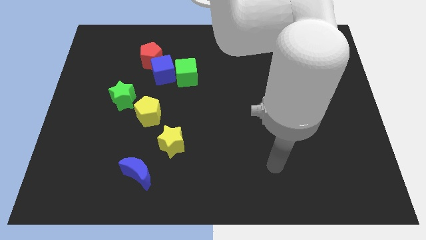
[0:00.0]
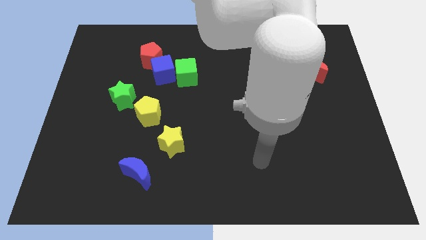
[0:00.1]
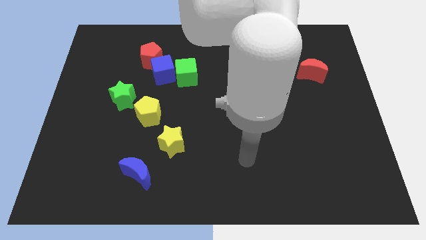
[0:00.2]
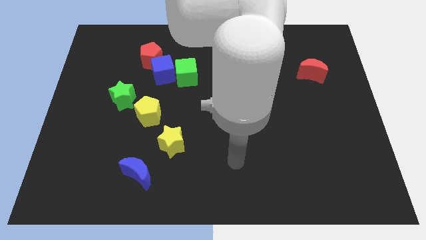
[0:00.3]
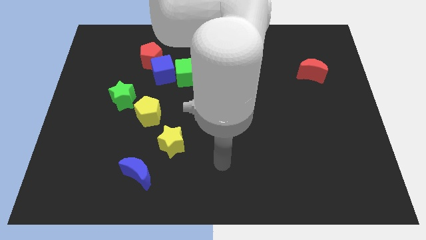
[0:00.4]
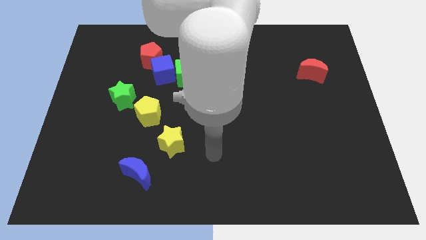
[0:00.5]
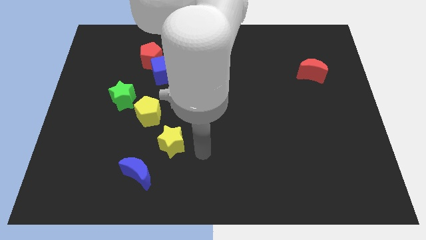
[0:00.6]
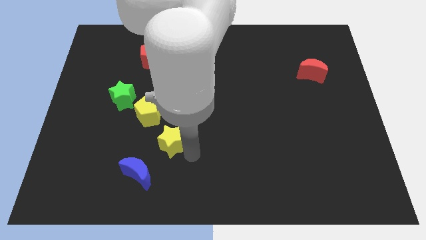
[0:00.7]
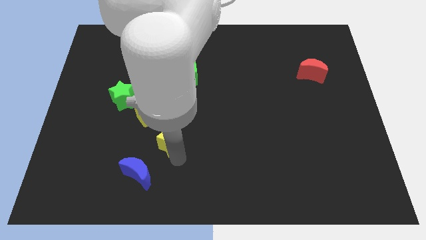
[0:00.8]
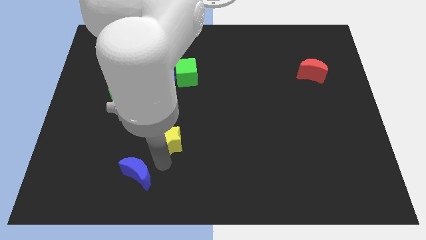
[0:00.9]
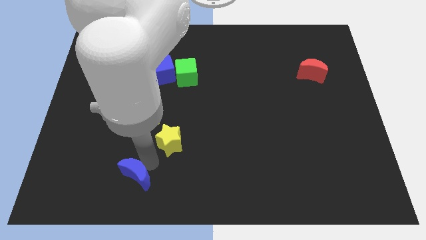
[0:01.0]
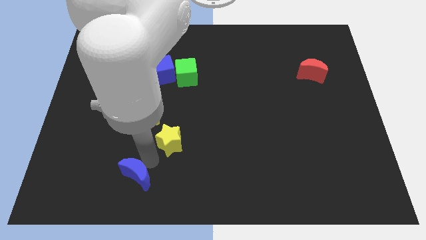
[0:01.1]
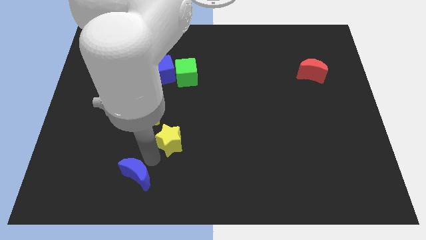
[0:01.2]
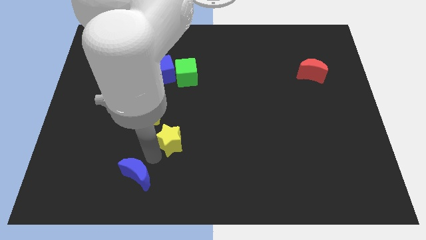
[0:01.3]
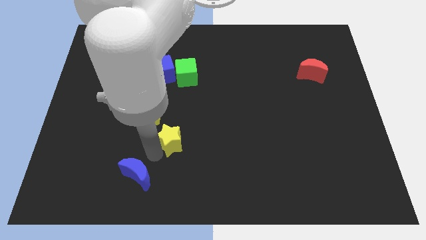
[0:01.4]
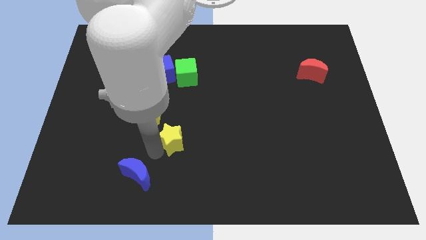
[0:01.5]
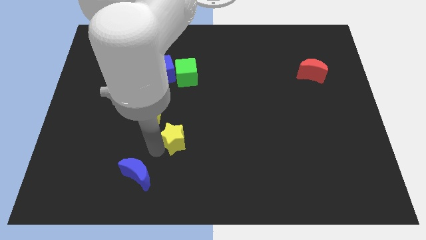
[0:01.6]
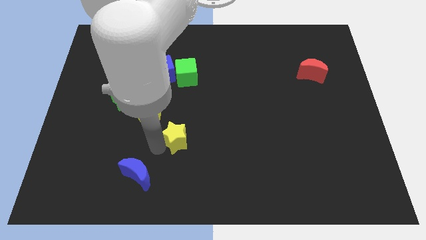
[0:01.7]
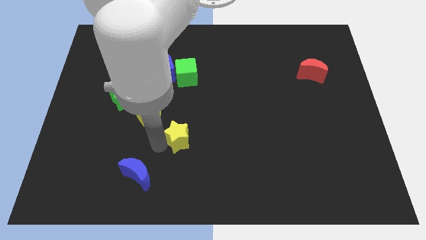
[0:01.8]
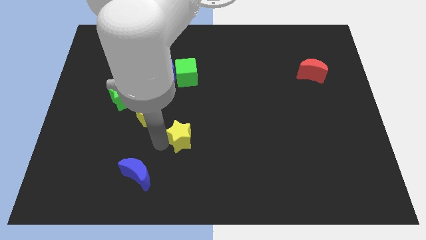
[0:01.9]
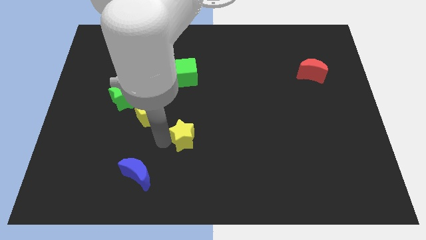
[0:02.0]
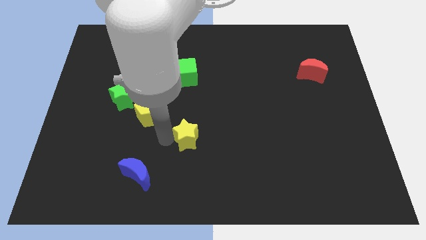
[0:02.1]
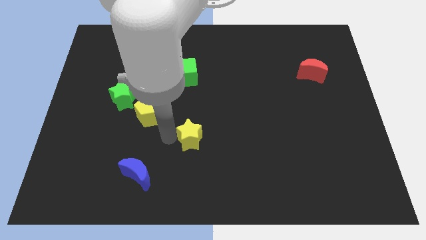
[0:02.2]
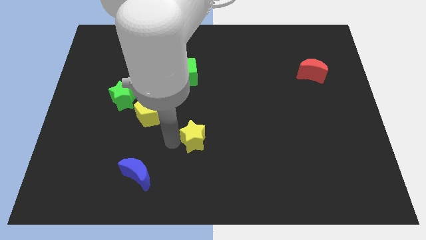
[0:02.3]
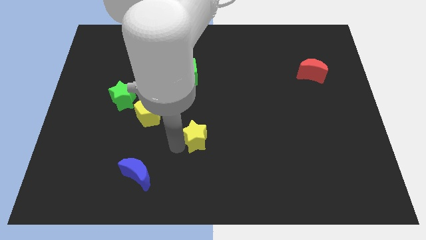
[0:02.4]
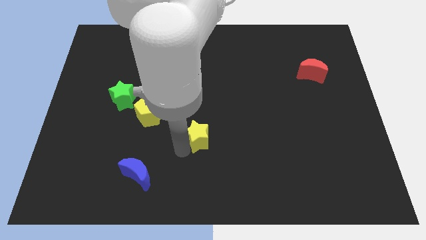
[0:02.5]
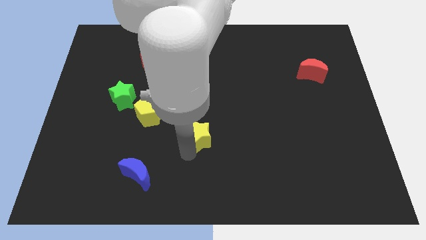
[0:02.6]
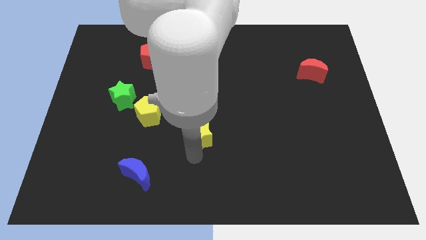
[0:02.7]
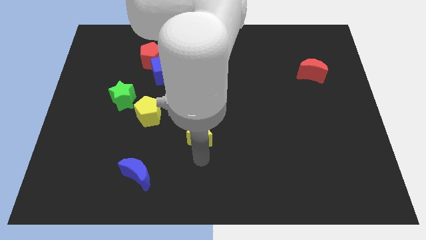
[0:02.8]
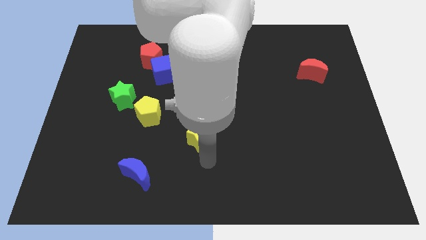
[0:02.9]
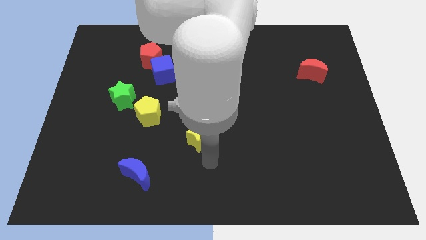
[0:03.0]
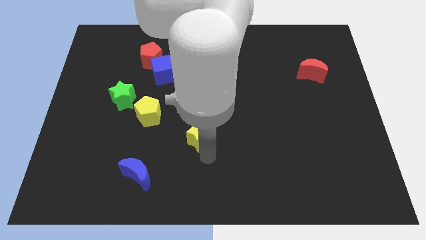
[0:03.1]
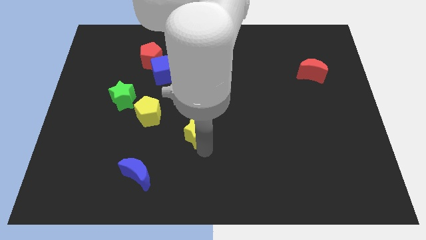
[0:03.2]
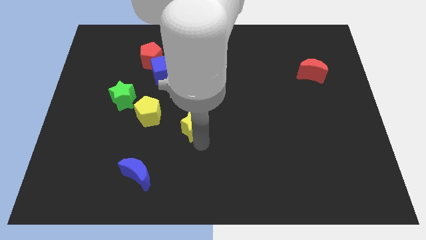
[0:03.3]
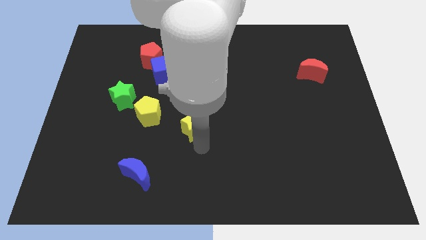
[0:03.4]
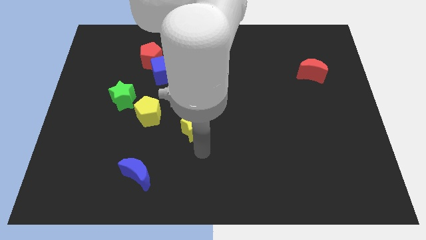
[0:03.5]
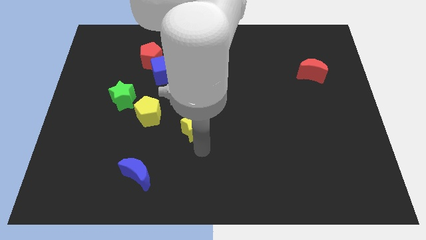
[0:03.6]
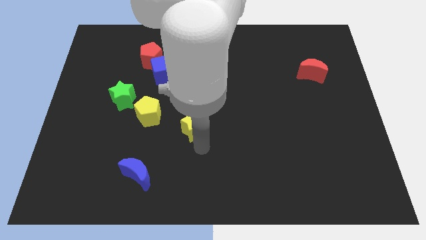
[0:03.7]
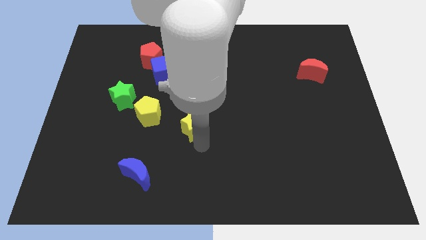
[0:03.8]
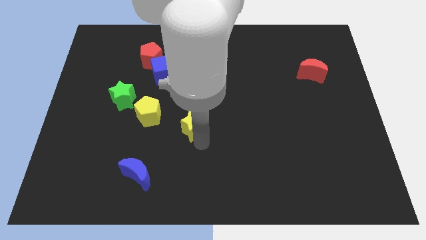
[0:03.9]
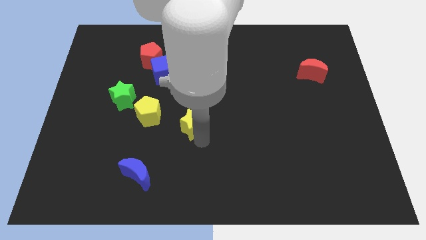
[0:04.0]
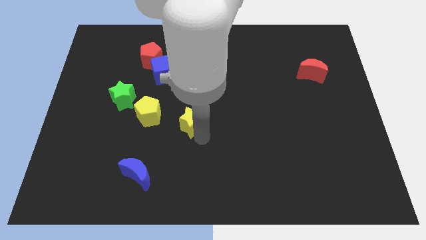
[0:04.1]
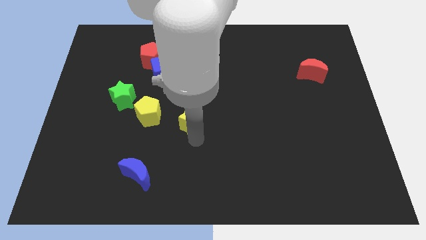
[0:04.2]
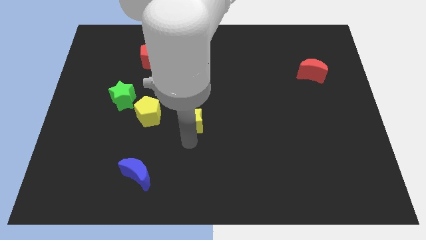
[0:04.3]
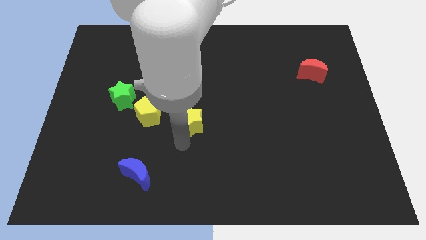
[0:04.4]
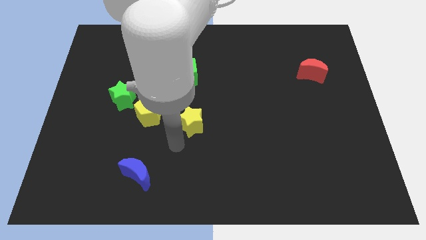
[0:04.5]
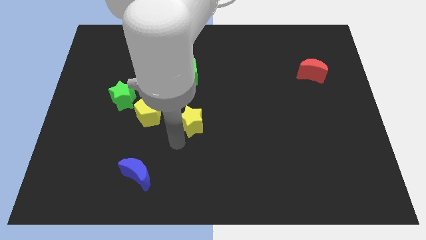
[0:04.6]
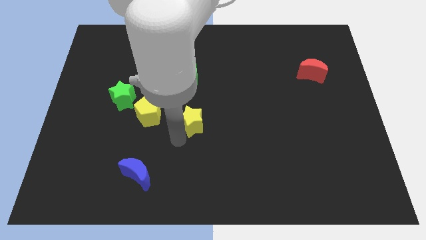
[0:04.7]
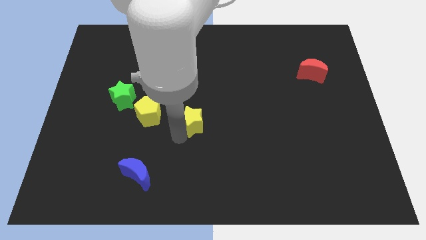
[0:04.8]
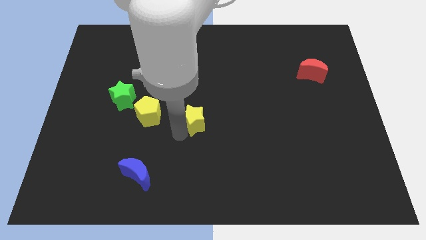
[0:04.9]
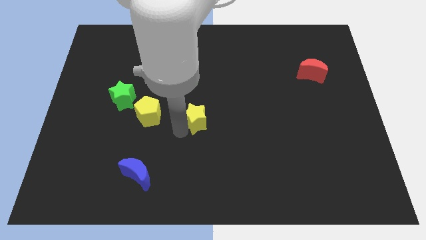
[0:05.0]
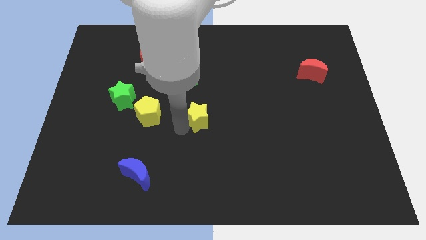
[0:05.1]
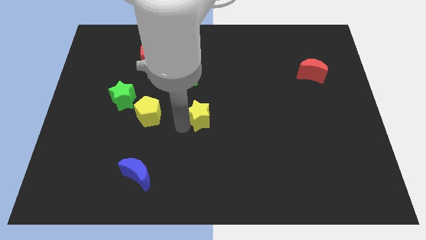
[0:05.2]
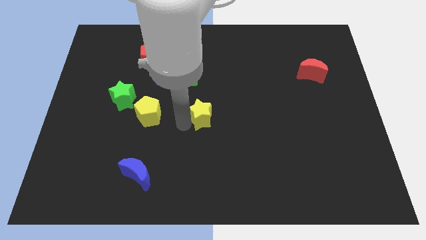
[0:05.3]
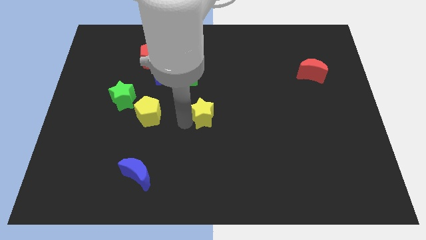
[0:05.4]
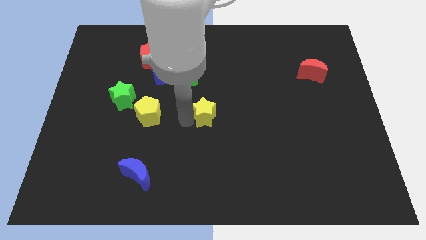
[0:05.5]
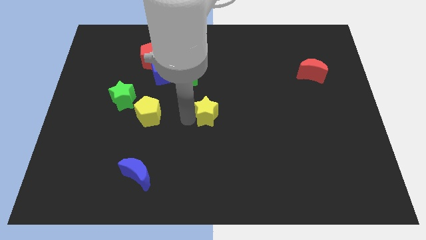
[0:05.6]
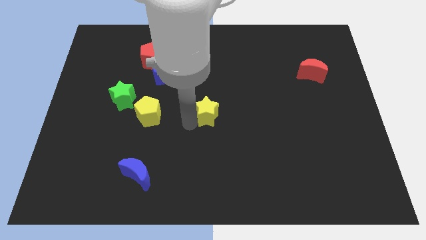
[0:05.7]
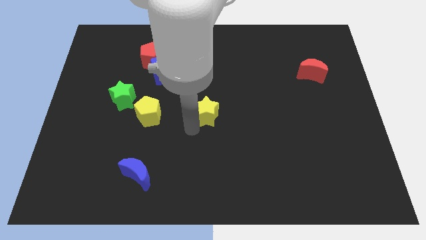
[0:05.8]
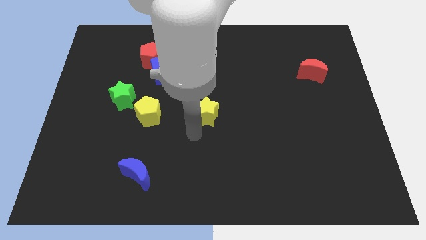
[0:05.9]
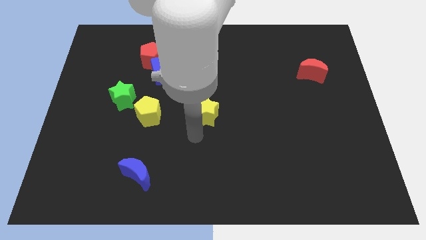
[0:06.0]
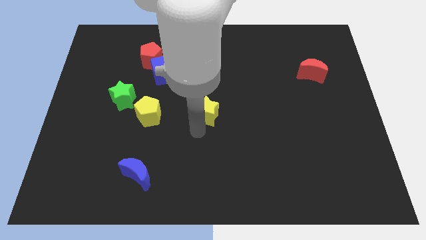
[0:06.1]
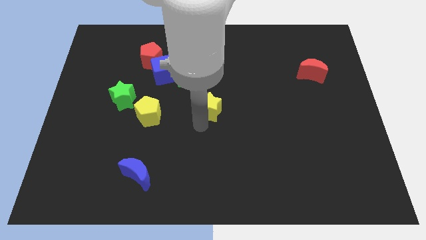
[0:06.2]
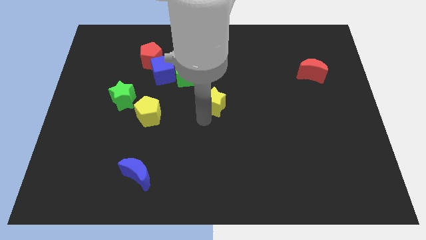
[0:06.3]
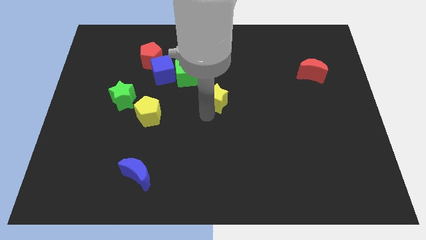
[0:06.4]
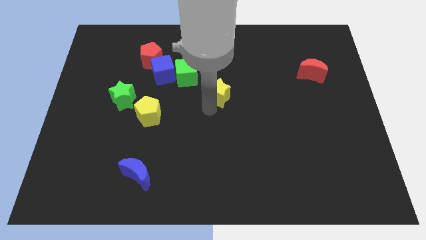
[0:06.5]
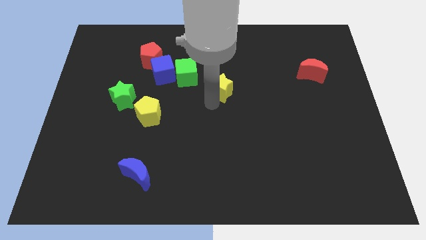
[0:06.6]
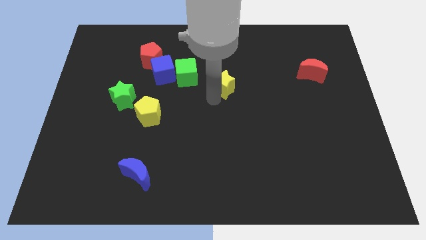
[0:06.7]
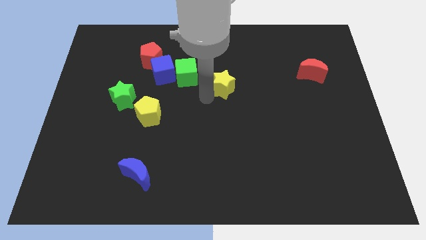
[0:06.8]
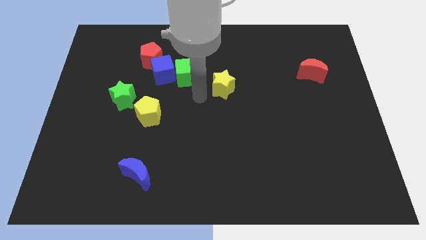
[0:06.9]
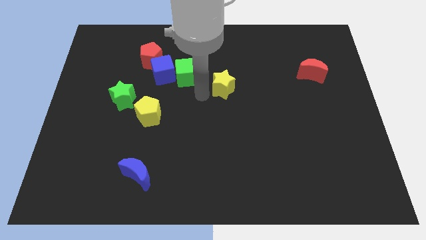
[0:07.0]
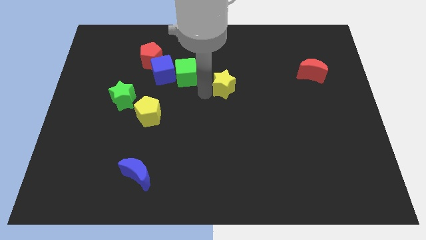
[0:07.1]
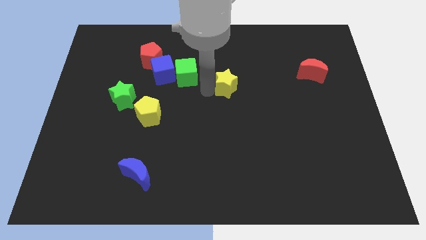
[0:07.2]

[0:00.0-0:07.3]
slide the yellow star upwards and then right

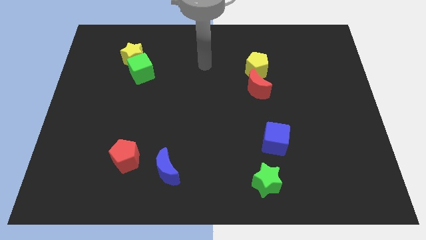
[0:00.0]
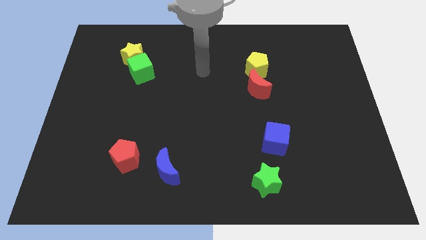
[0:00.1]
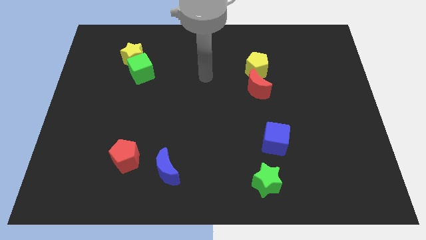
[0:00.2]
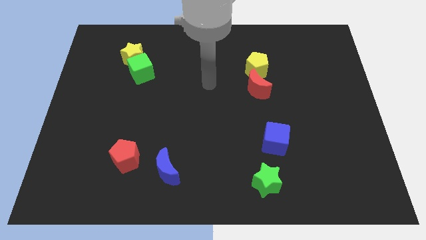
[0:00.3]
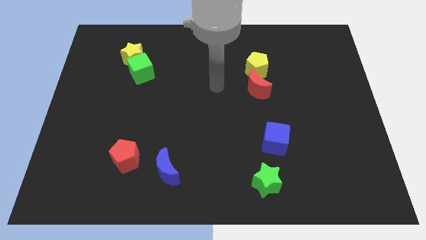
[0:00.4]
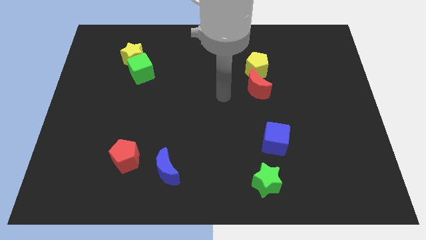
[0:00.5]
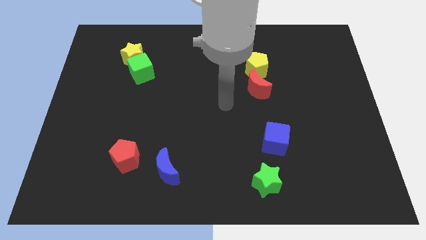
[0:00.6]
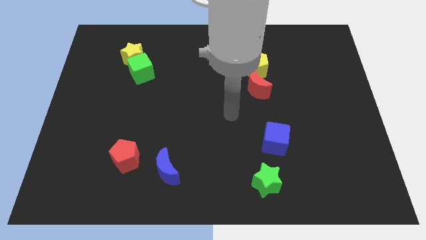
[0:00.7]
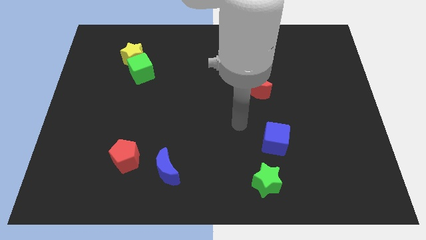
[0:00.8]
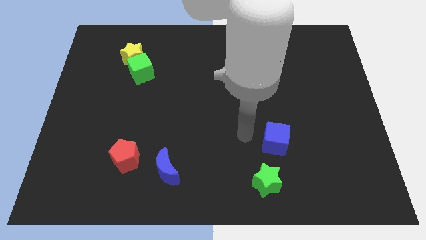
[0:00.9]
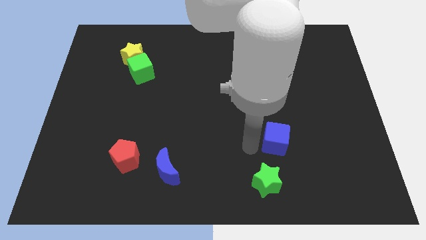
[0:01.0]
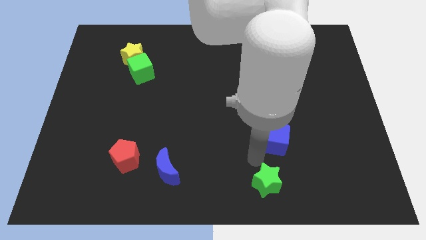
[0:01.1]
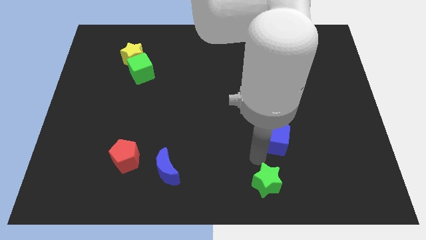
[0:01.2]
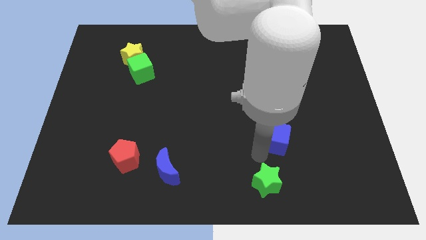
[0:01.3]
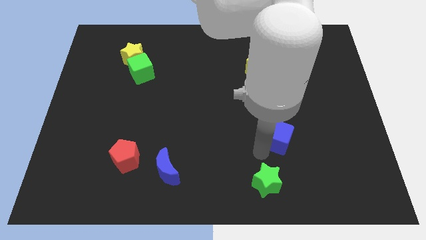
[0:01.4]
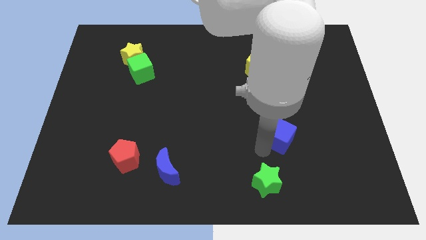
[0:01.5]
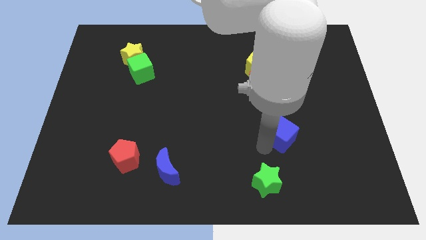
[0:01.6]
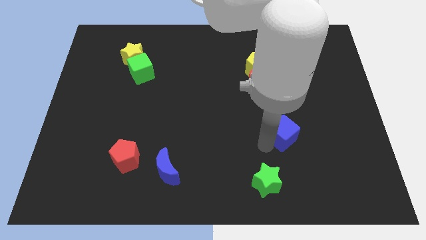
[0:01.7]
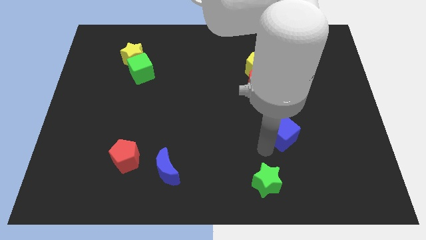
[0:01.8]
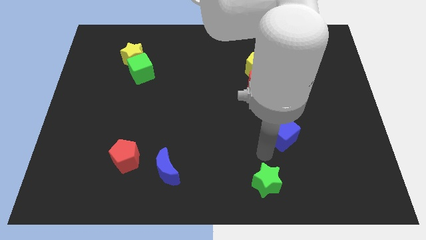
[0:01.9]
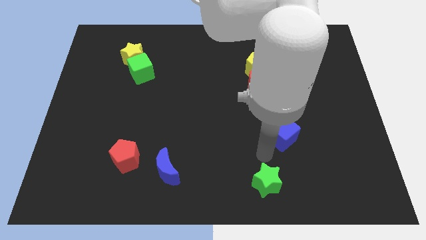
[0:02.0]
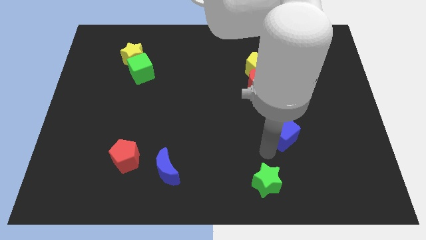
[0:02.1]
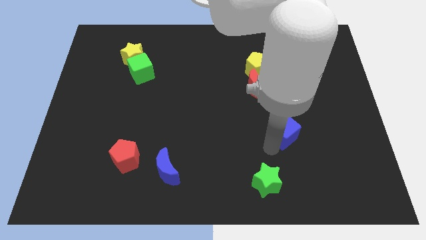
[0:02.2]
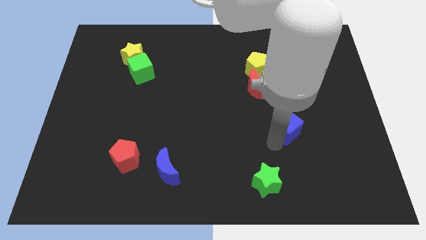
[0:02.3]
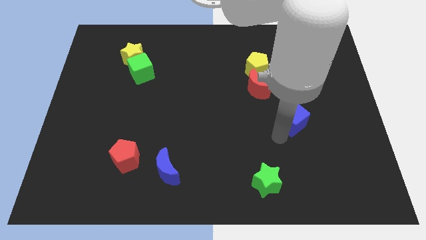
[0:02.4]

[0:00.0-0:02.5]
push the blue cube somewhat upwards and then right
